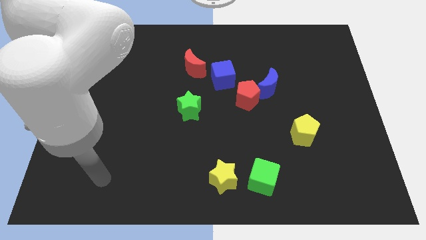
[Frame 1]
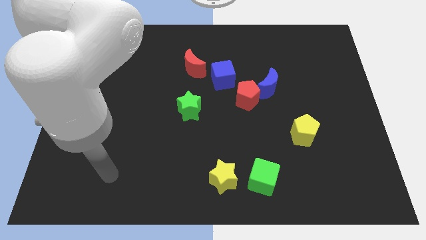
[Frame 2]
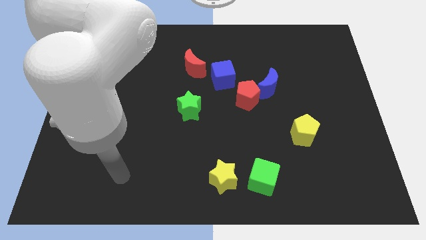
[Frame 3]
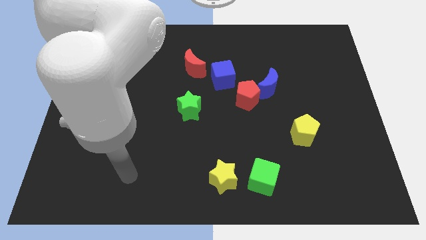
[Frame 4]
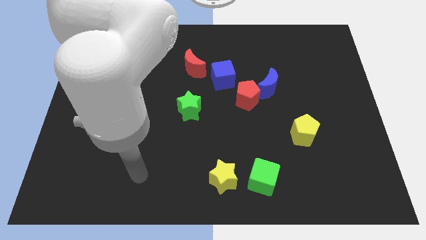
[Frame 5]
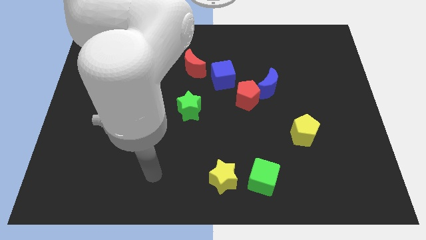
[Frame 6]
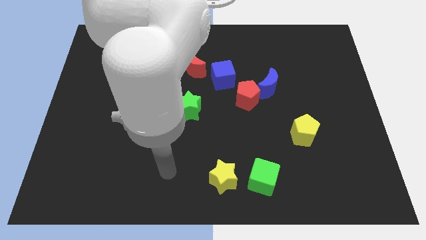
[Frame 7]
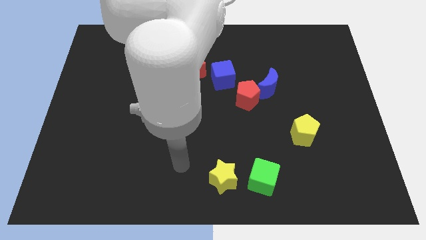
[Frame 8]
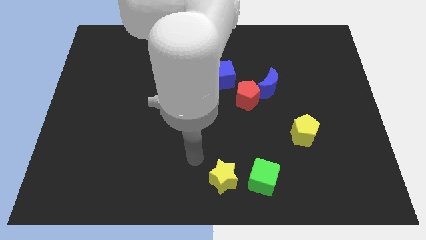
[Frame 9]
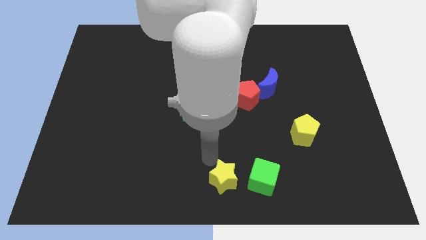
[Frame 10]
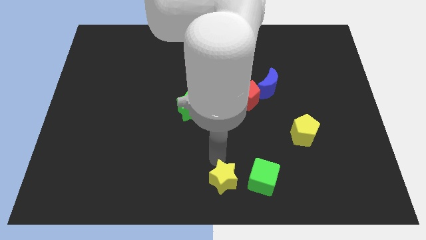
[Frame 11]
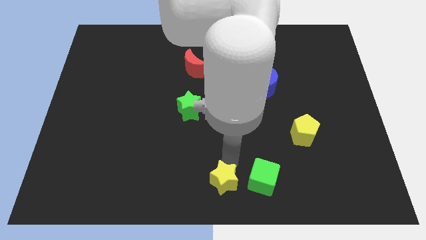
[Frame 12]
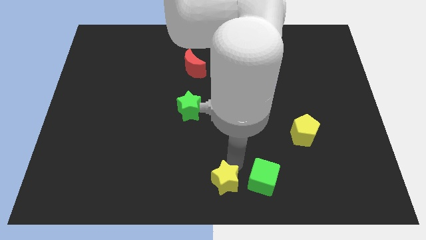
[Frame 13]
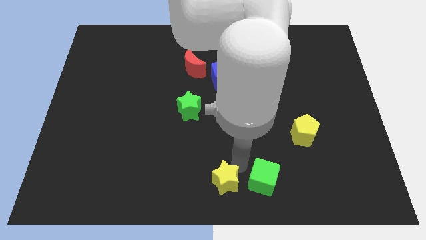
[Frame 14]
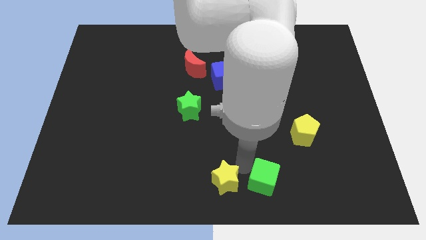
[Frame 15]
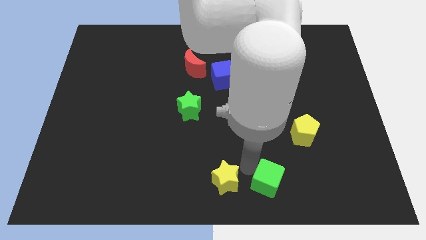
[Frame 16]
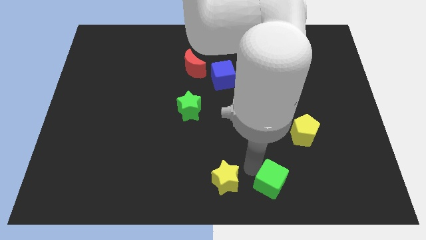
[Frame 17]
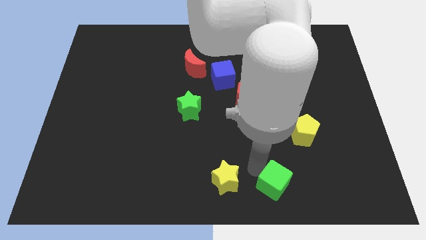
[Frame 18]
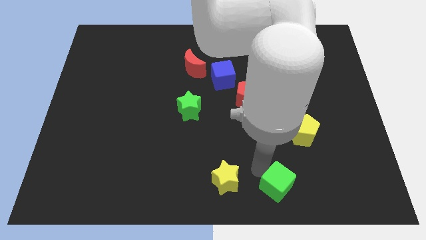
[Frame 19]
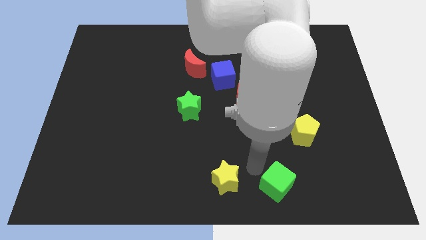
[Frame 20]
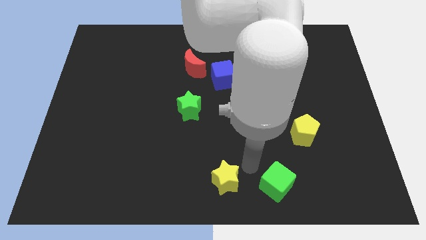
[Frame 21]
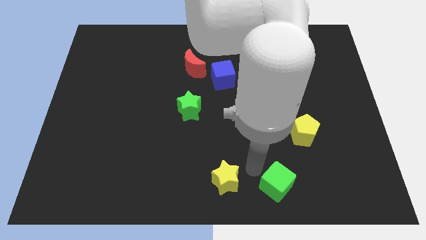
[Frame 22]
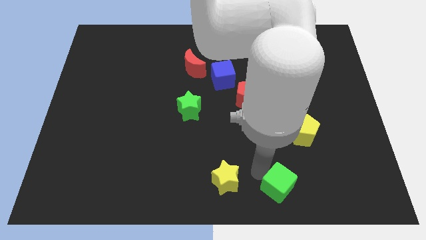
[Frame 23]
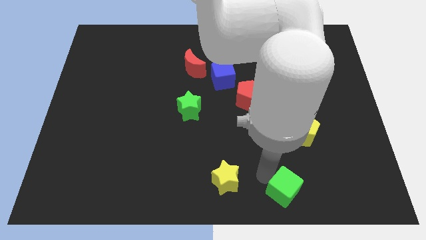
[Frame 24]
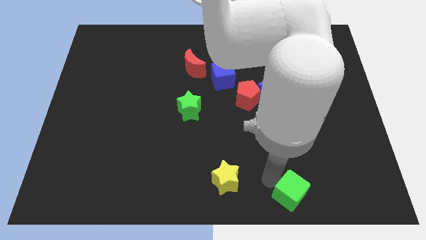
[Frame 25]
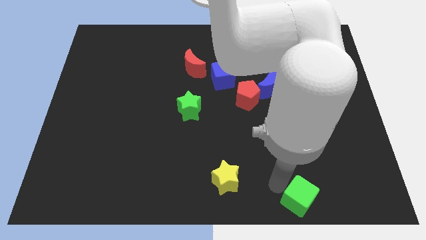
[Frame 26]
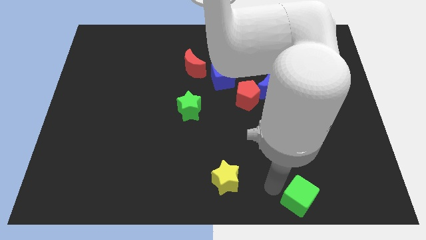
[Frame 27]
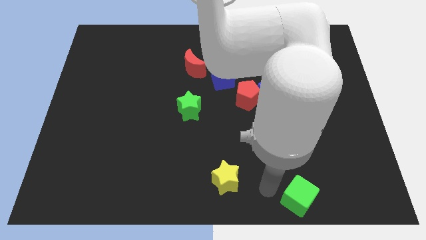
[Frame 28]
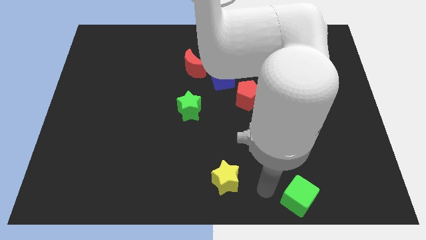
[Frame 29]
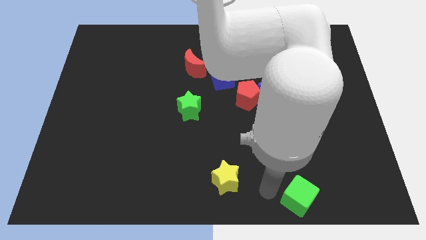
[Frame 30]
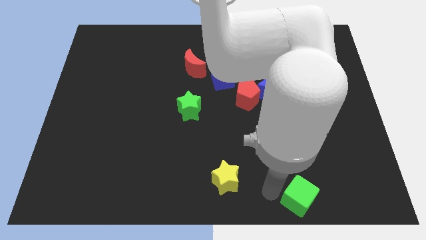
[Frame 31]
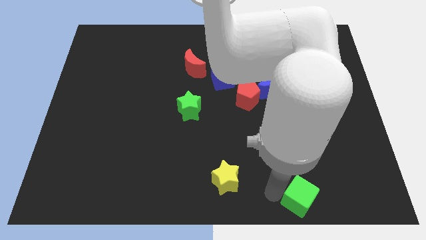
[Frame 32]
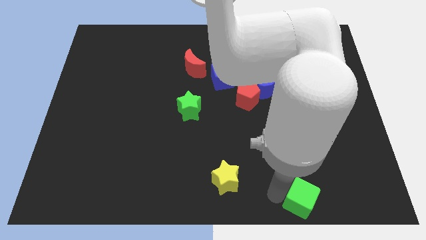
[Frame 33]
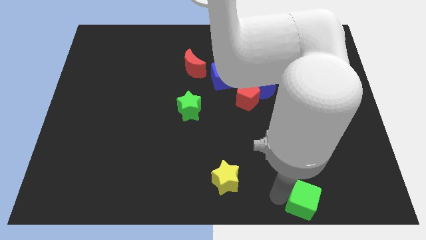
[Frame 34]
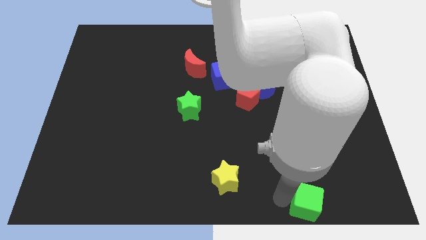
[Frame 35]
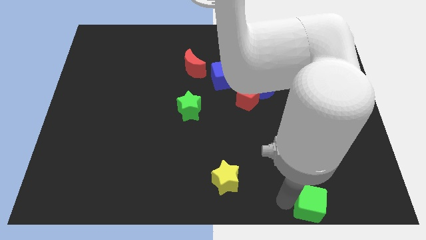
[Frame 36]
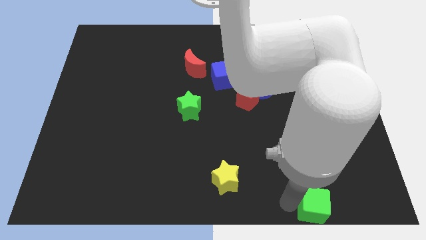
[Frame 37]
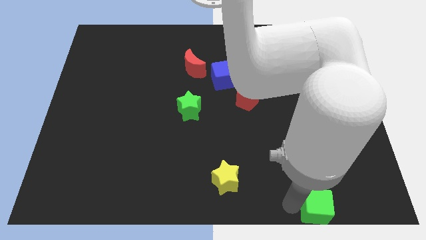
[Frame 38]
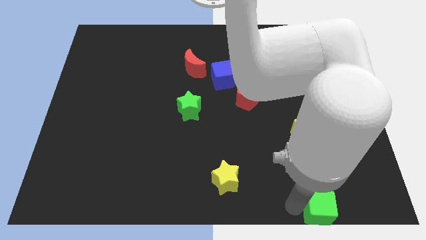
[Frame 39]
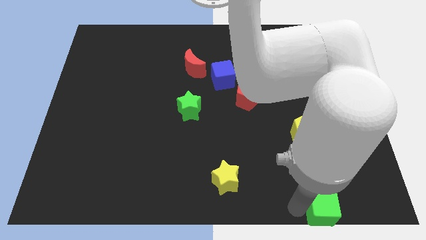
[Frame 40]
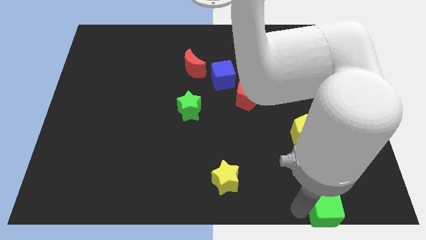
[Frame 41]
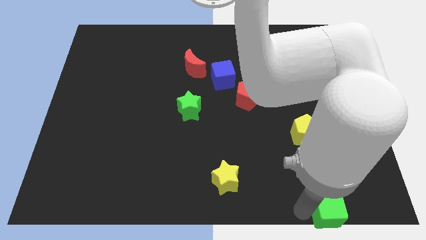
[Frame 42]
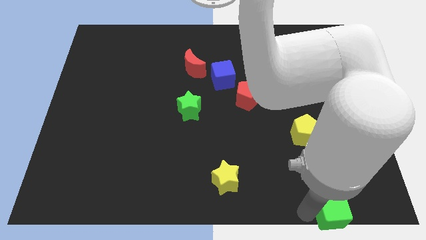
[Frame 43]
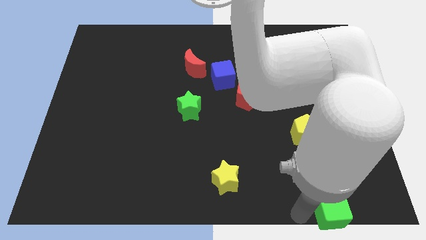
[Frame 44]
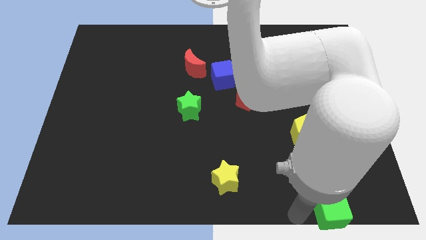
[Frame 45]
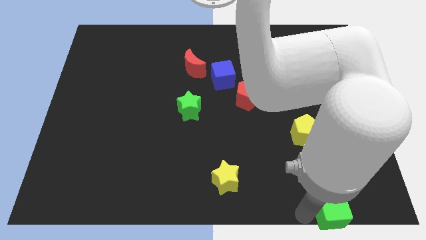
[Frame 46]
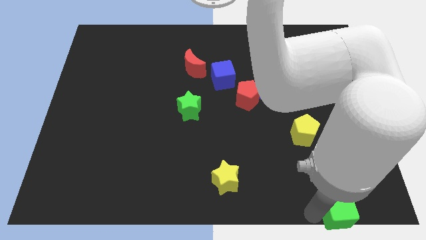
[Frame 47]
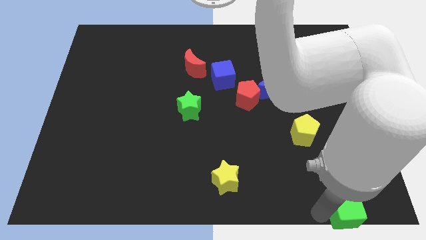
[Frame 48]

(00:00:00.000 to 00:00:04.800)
slide the green cube to the bottom right

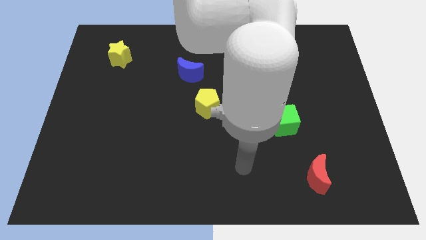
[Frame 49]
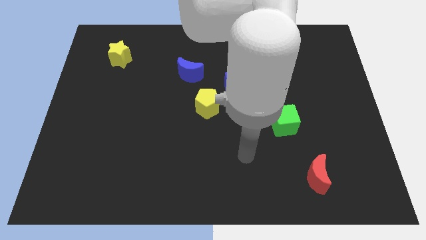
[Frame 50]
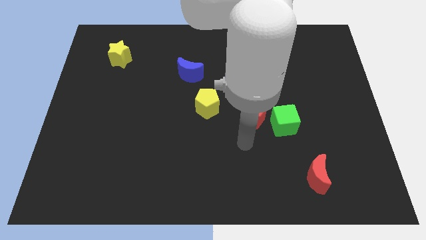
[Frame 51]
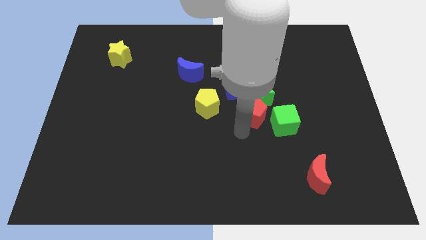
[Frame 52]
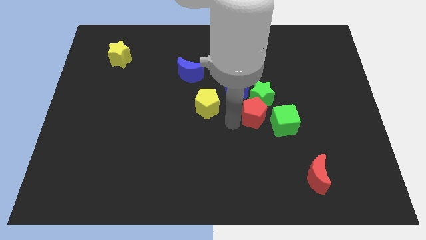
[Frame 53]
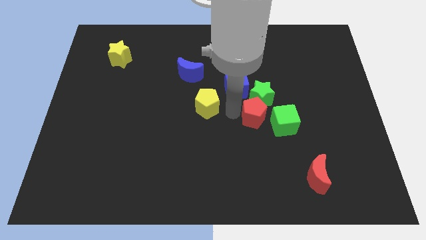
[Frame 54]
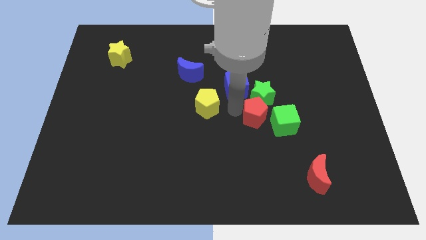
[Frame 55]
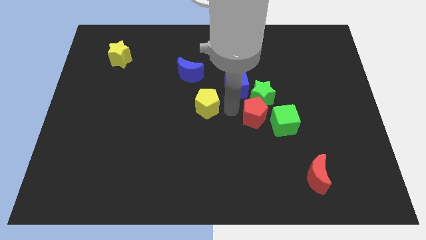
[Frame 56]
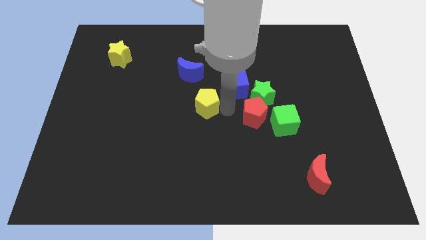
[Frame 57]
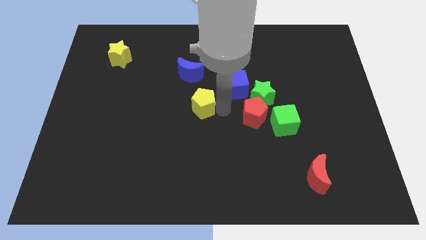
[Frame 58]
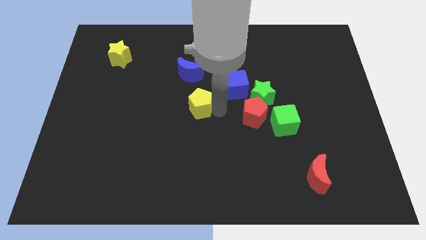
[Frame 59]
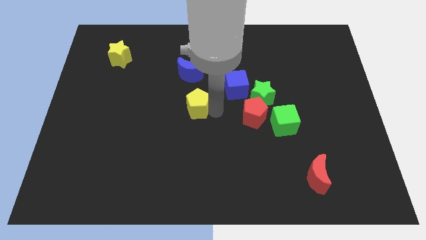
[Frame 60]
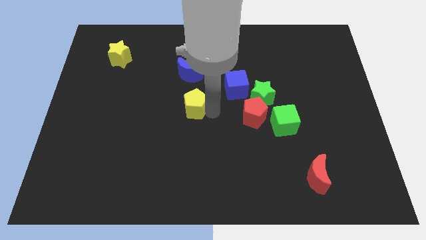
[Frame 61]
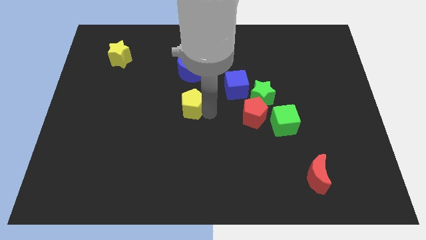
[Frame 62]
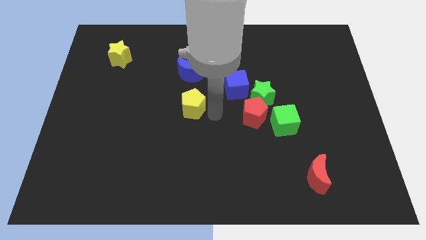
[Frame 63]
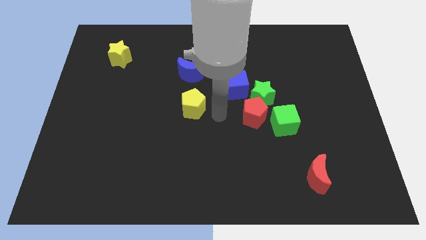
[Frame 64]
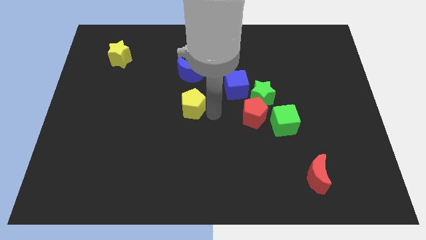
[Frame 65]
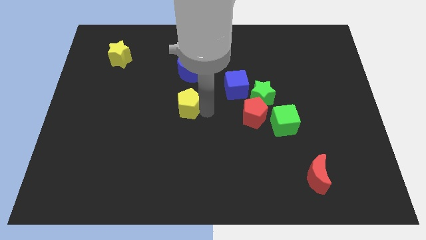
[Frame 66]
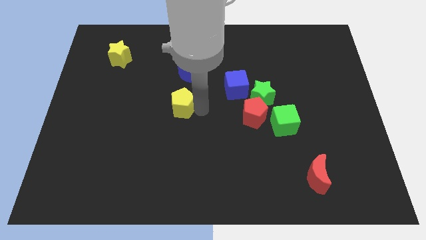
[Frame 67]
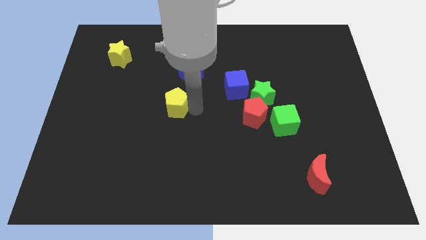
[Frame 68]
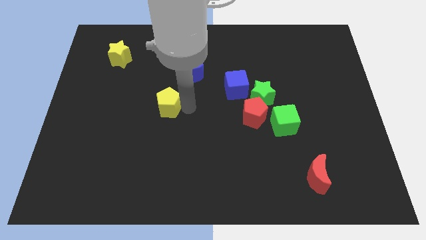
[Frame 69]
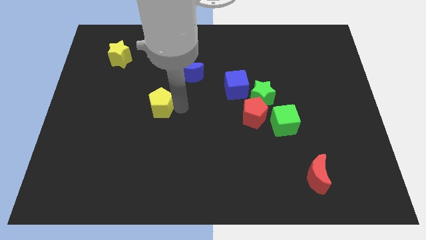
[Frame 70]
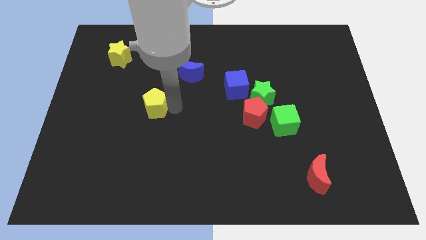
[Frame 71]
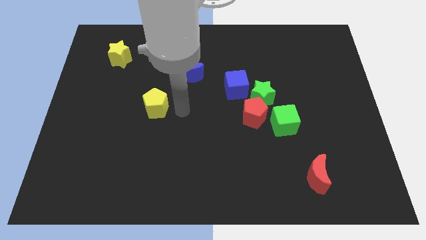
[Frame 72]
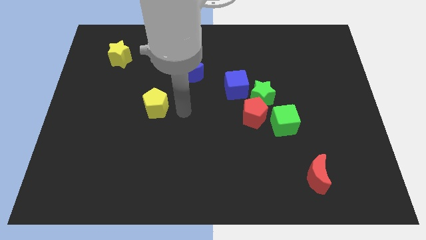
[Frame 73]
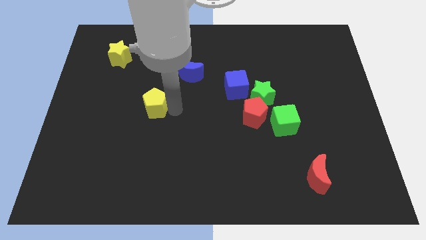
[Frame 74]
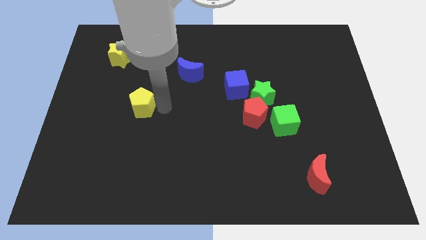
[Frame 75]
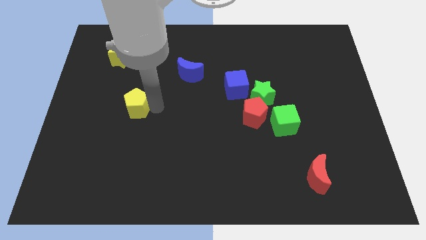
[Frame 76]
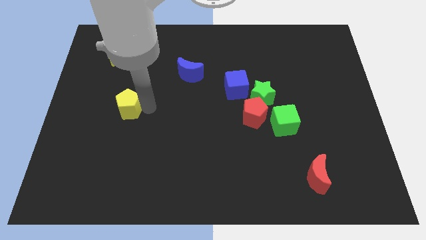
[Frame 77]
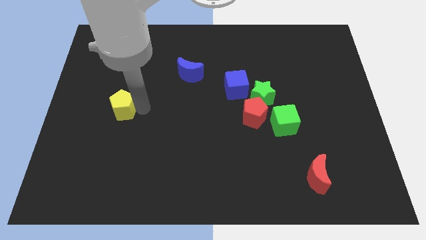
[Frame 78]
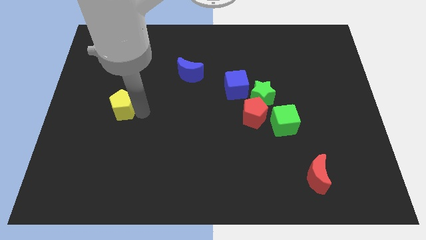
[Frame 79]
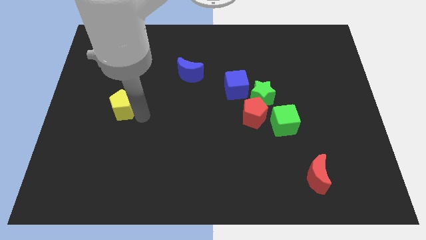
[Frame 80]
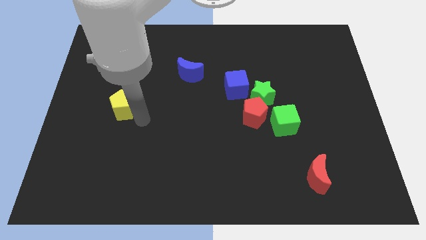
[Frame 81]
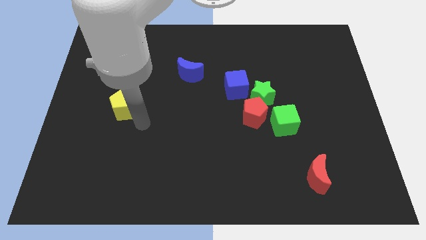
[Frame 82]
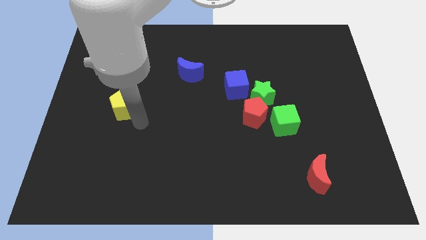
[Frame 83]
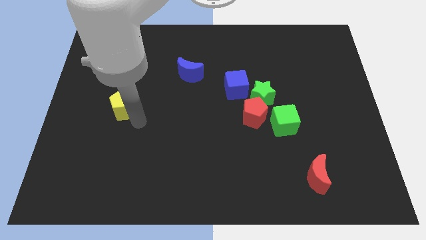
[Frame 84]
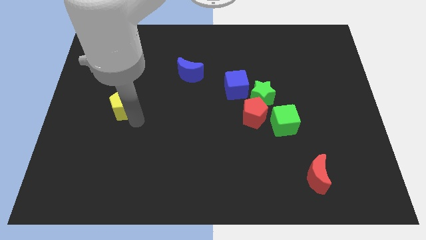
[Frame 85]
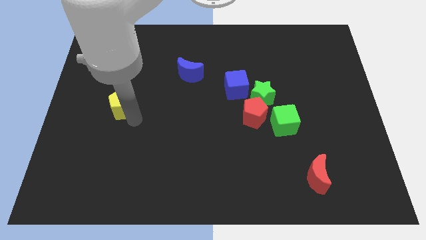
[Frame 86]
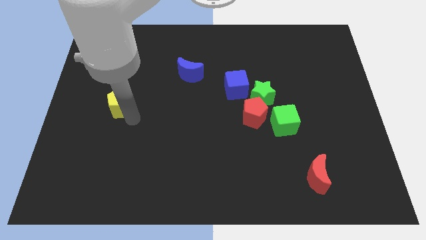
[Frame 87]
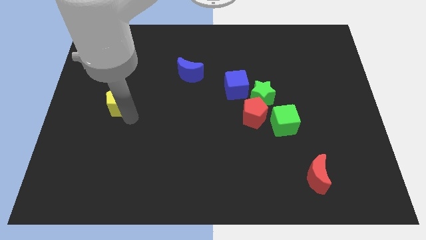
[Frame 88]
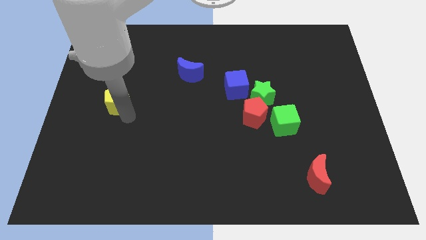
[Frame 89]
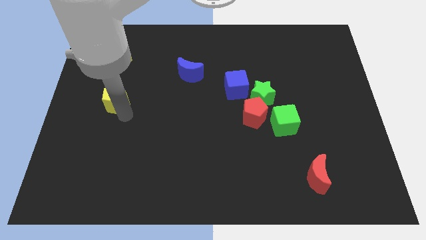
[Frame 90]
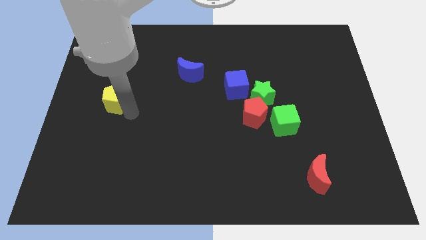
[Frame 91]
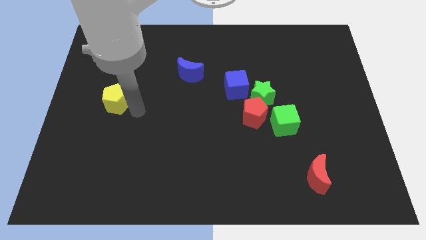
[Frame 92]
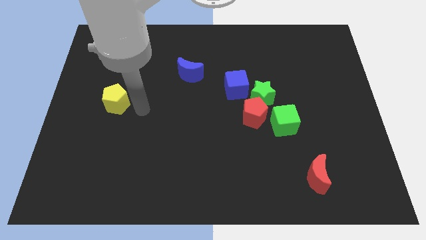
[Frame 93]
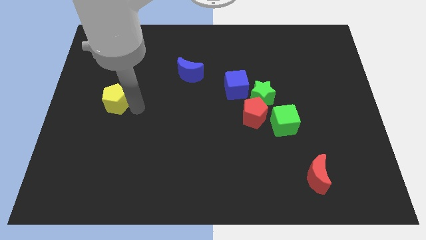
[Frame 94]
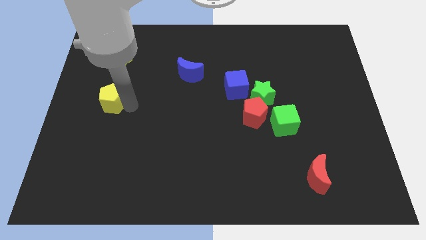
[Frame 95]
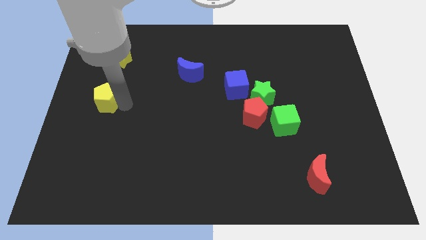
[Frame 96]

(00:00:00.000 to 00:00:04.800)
move the yellow pentagon to the center left
